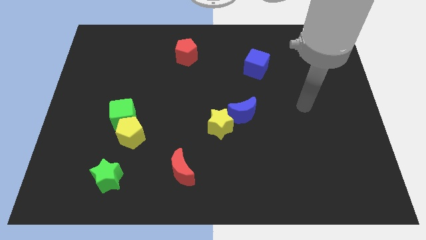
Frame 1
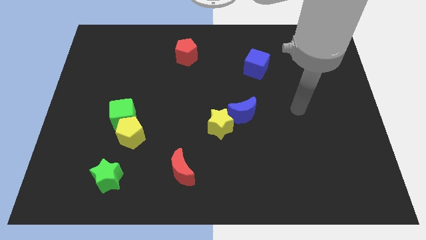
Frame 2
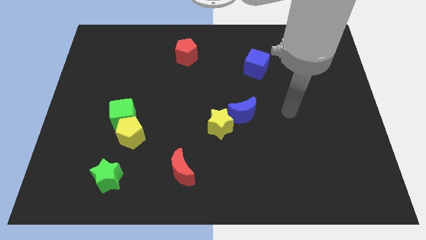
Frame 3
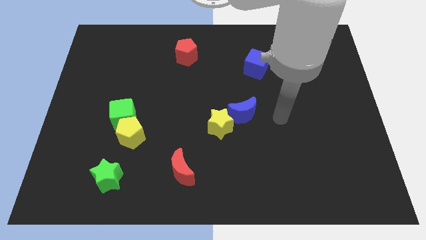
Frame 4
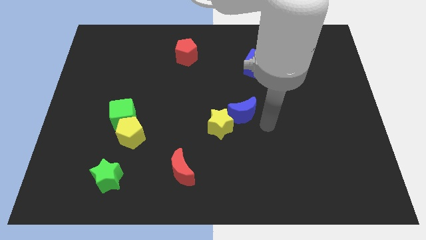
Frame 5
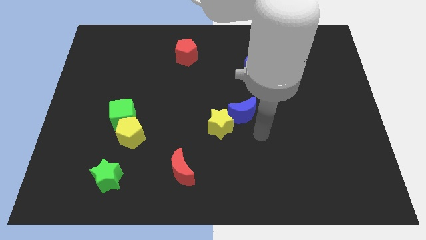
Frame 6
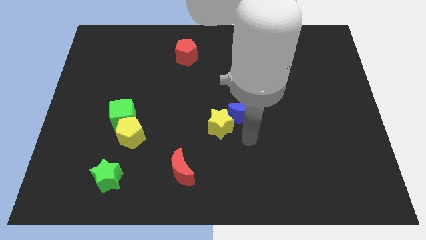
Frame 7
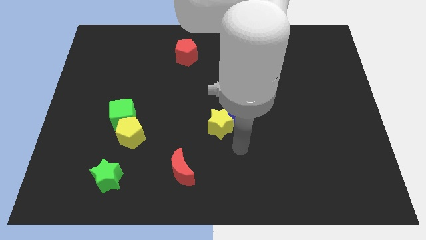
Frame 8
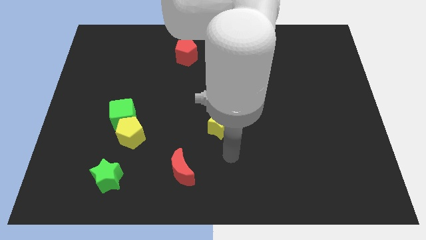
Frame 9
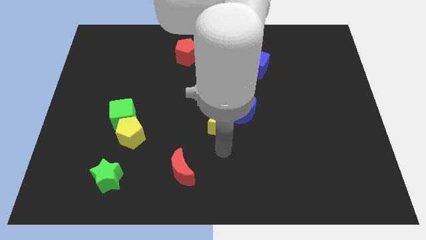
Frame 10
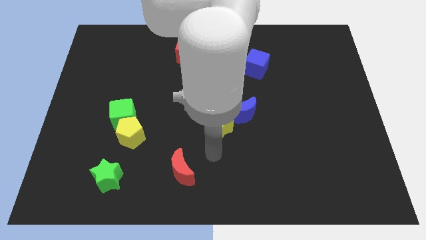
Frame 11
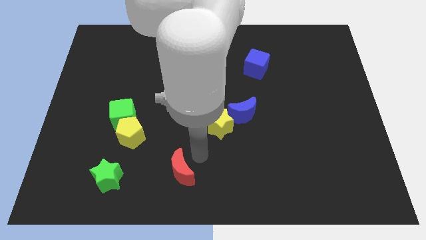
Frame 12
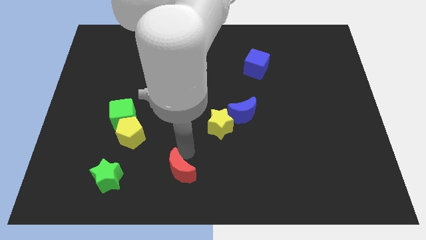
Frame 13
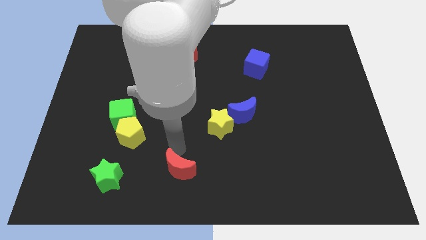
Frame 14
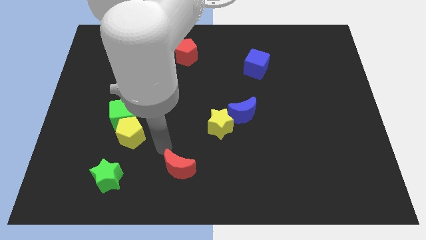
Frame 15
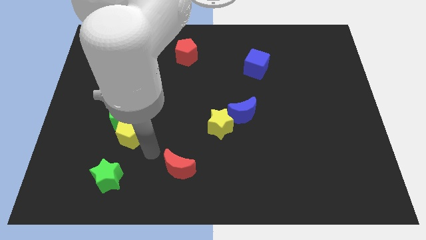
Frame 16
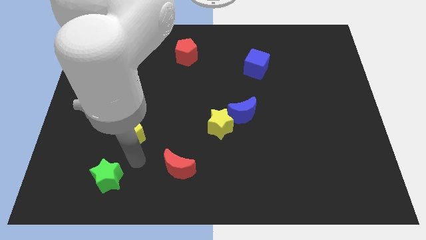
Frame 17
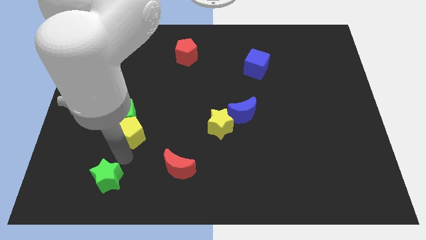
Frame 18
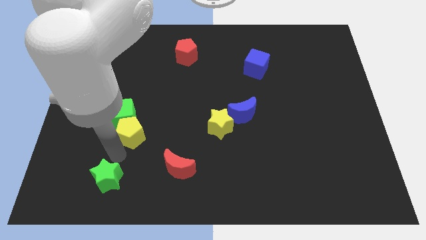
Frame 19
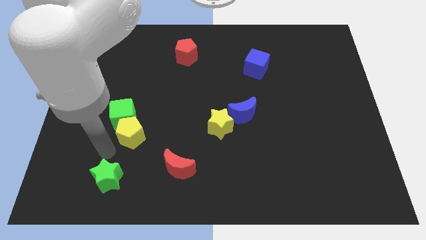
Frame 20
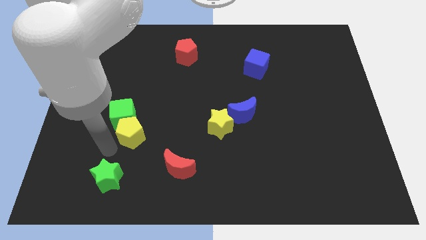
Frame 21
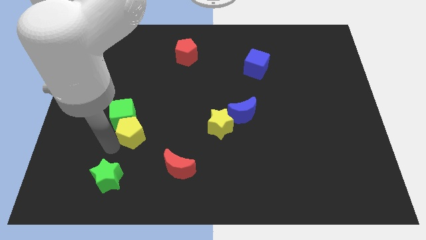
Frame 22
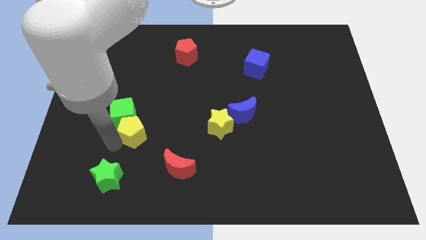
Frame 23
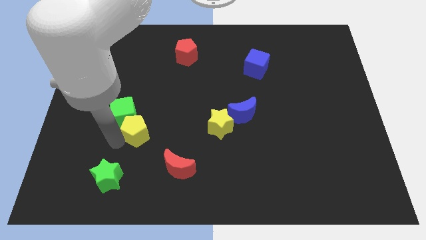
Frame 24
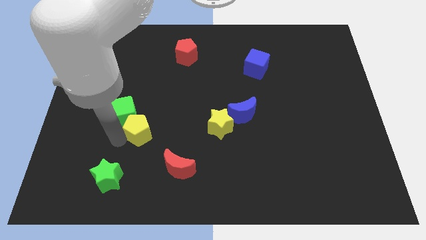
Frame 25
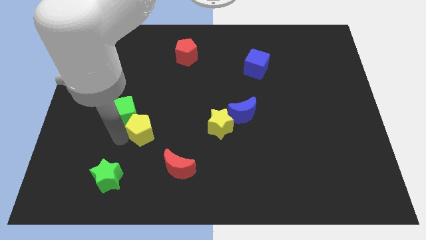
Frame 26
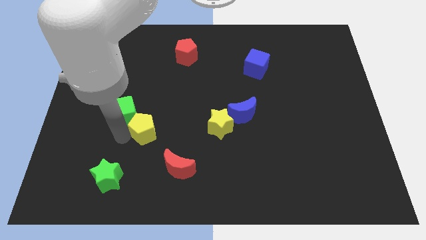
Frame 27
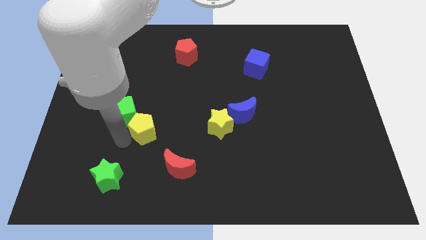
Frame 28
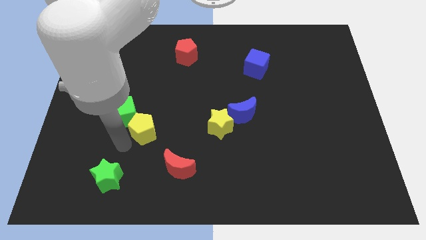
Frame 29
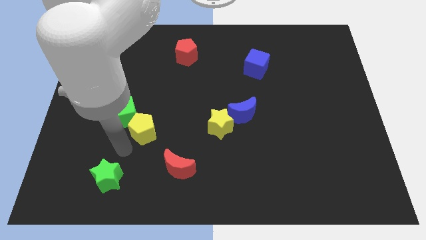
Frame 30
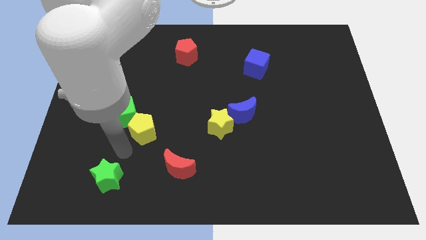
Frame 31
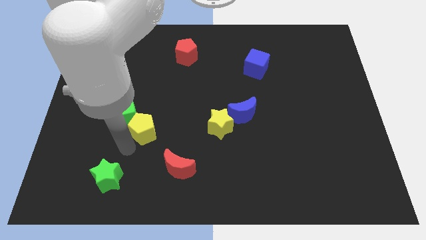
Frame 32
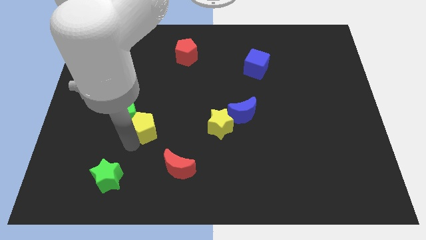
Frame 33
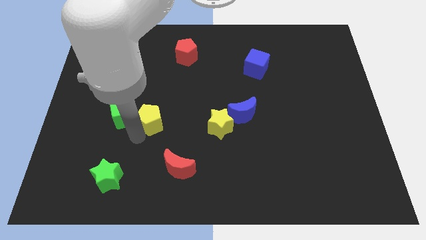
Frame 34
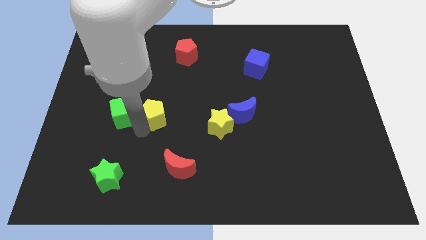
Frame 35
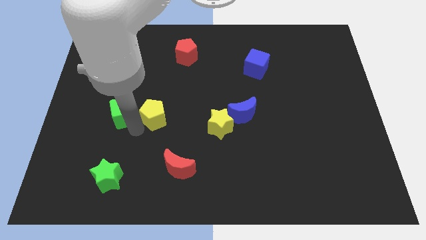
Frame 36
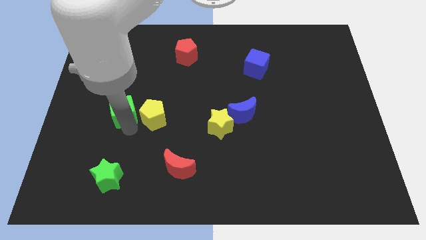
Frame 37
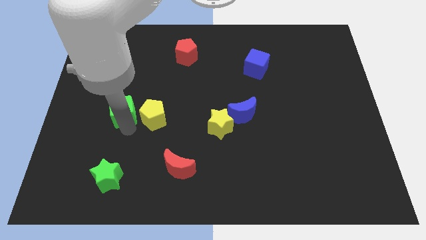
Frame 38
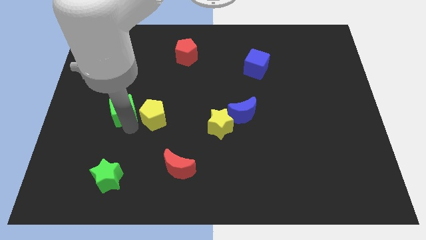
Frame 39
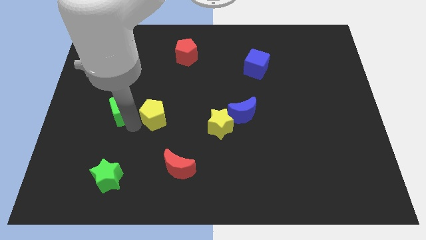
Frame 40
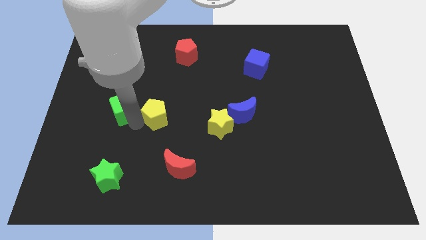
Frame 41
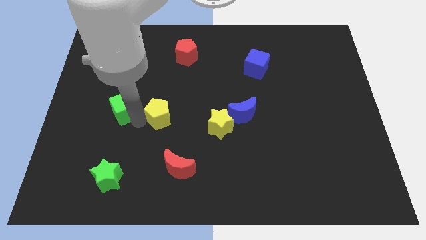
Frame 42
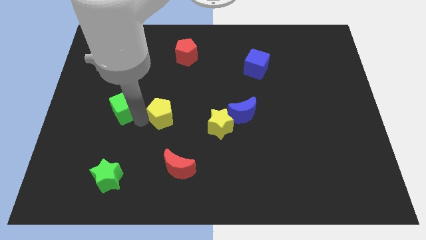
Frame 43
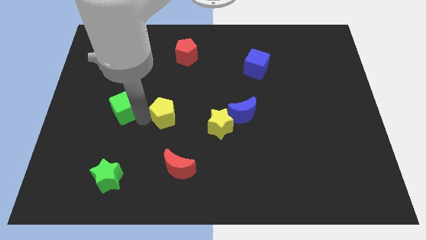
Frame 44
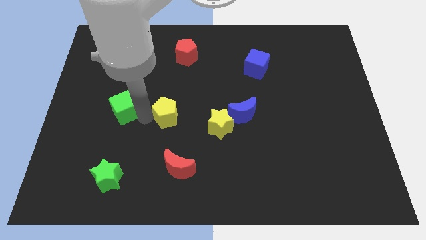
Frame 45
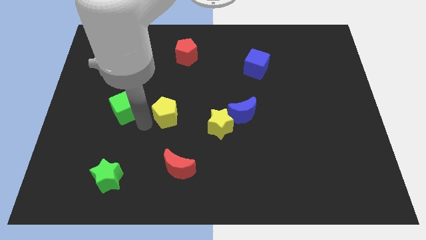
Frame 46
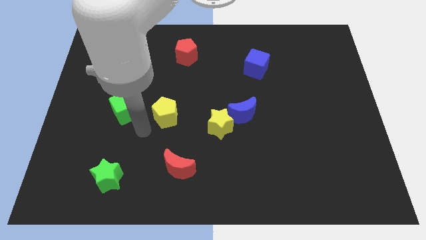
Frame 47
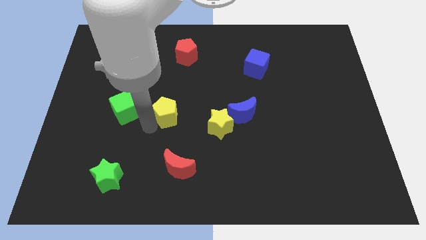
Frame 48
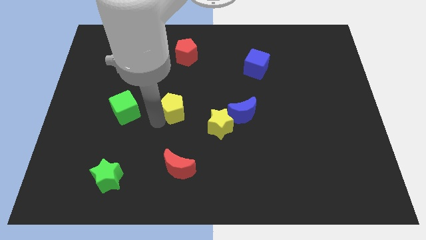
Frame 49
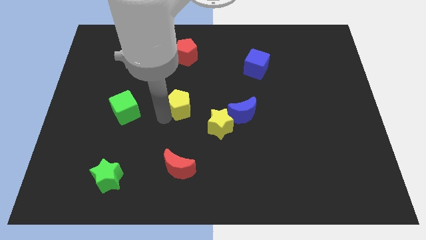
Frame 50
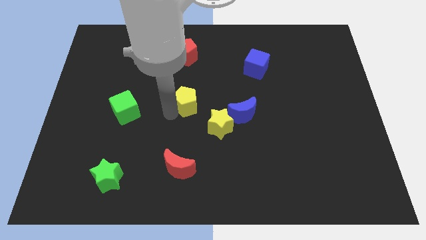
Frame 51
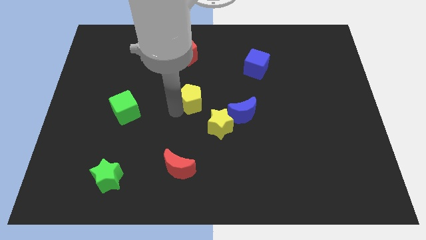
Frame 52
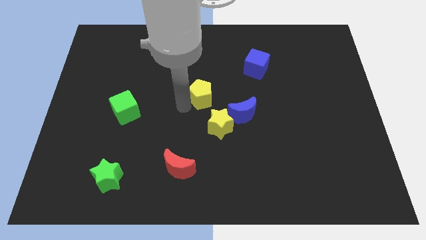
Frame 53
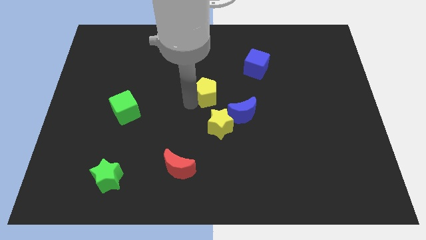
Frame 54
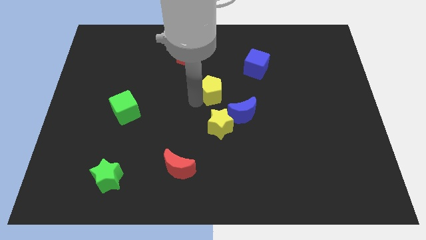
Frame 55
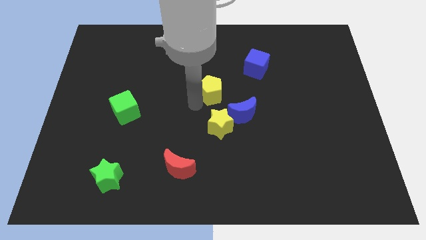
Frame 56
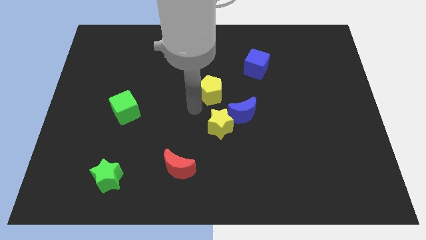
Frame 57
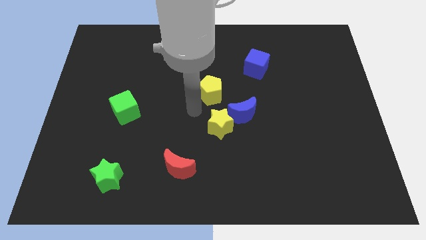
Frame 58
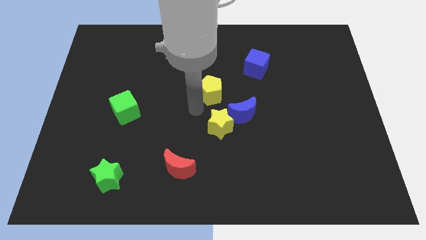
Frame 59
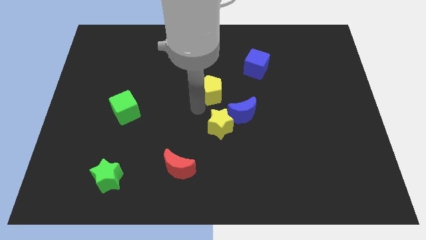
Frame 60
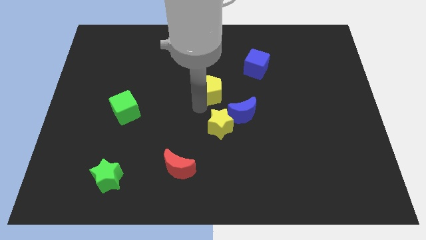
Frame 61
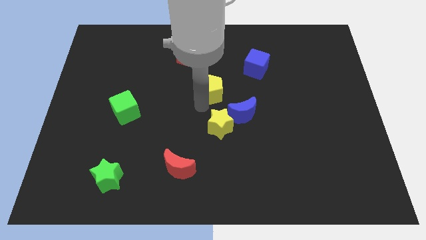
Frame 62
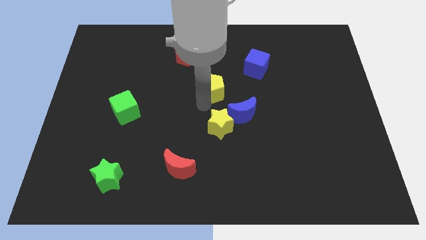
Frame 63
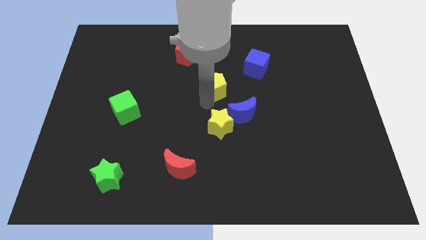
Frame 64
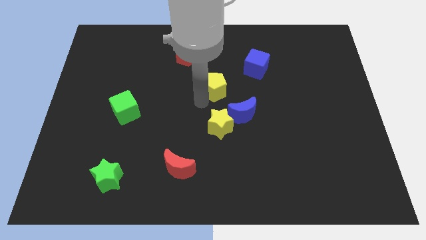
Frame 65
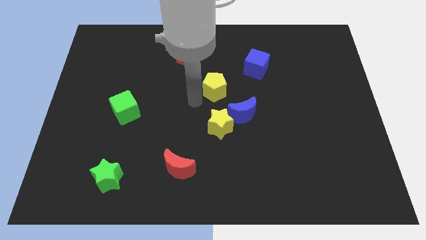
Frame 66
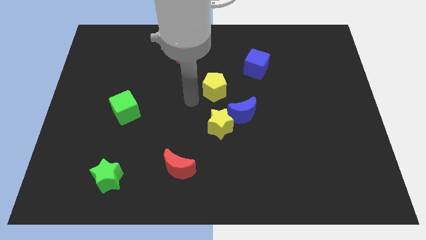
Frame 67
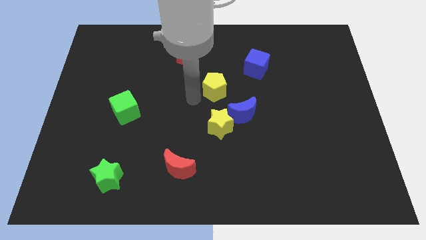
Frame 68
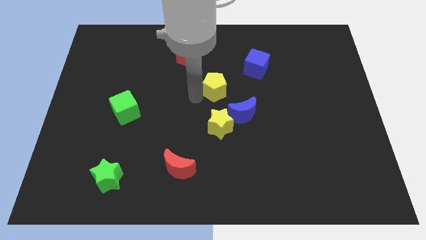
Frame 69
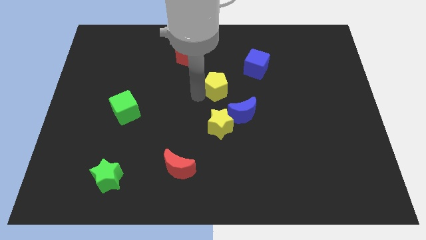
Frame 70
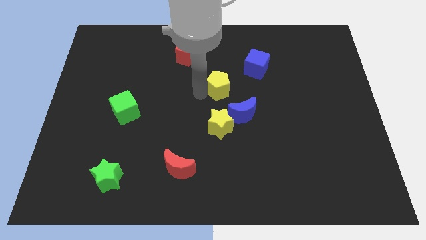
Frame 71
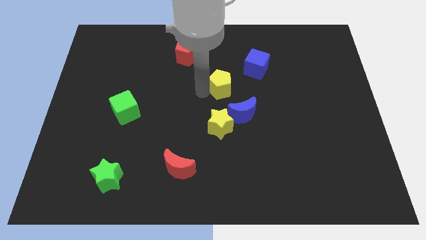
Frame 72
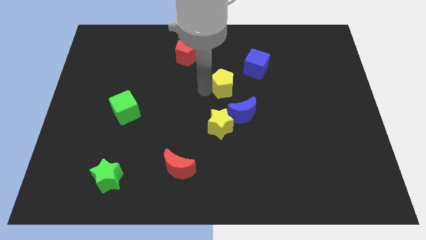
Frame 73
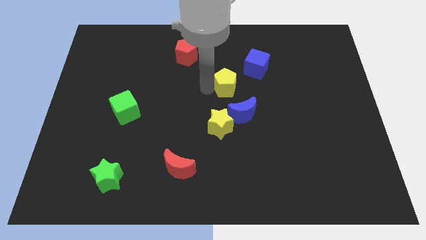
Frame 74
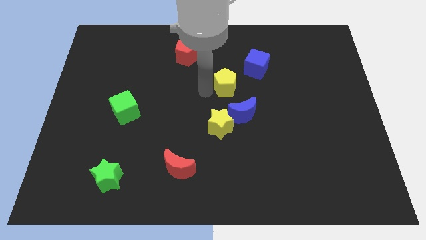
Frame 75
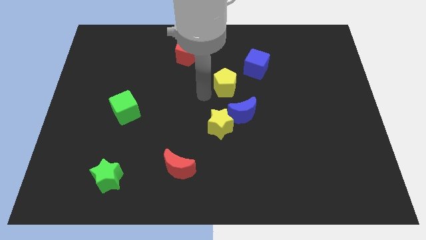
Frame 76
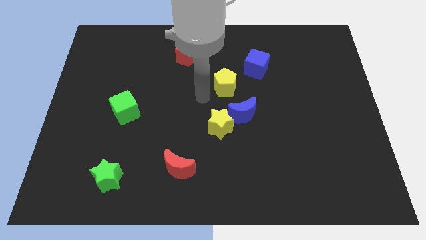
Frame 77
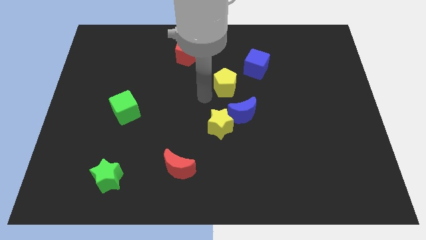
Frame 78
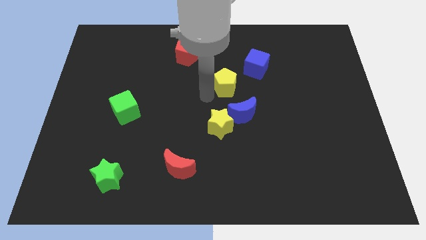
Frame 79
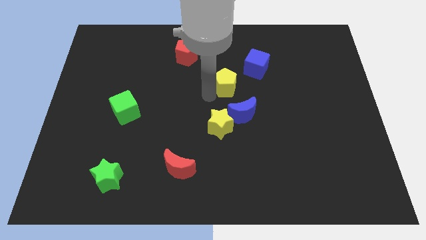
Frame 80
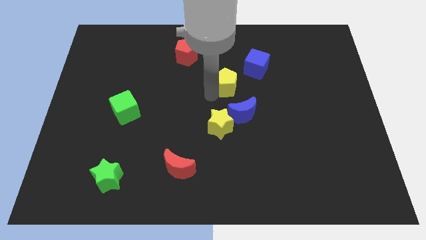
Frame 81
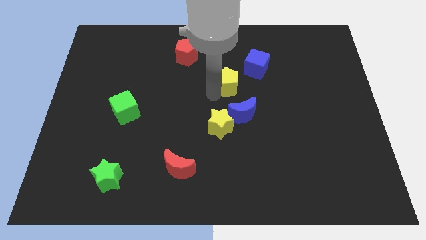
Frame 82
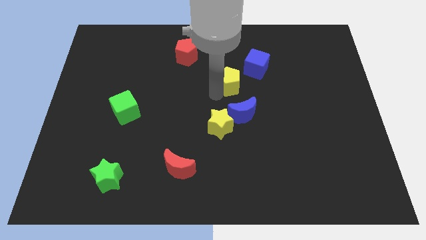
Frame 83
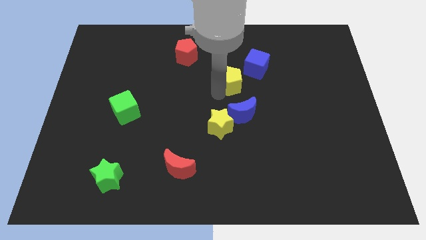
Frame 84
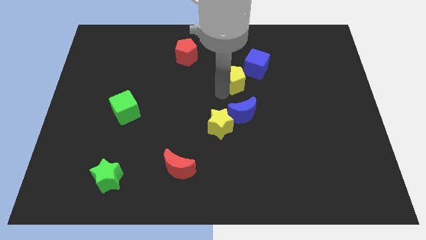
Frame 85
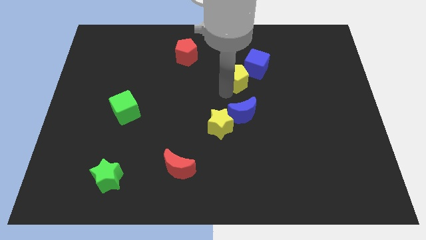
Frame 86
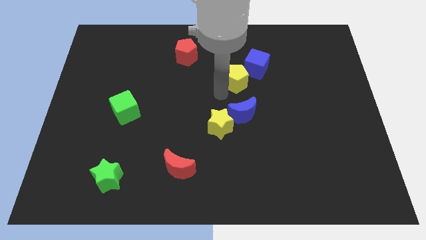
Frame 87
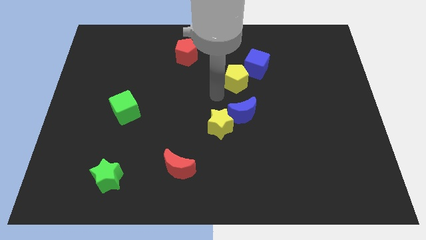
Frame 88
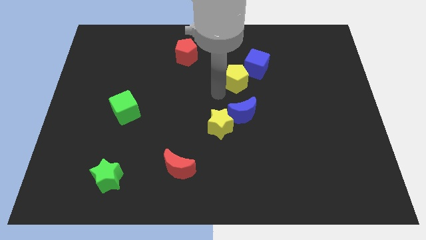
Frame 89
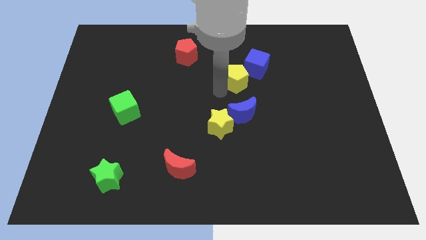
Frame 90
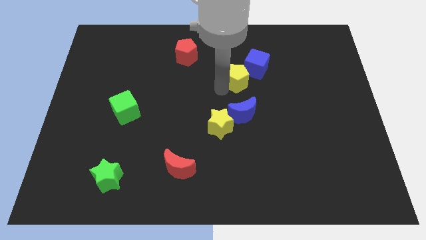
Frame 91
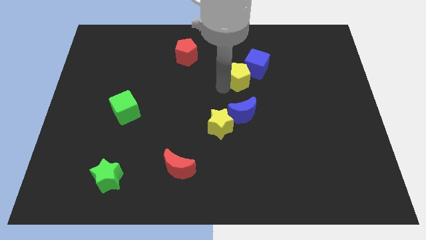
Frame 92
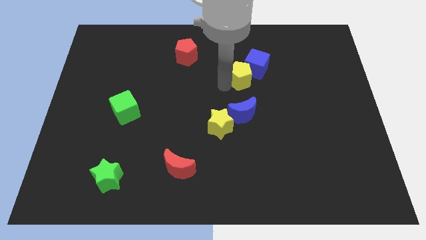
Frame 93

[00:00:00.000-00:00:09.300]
move the yellow pentagon next to the blue cube
